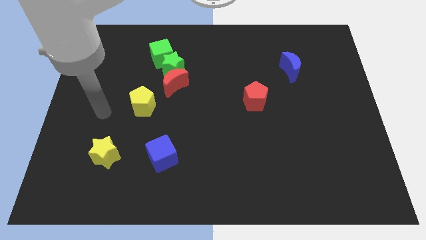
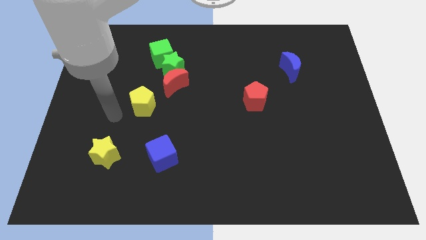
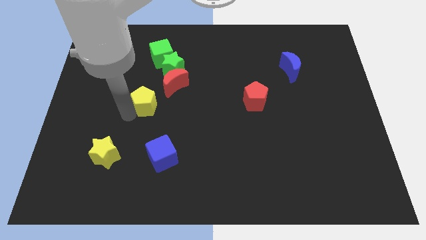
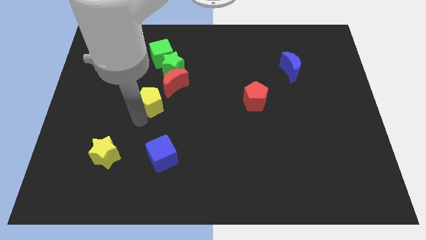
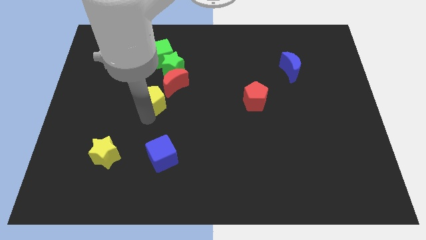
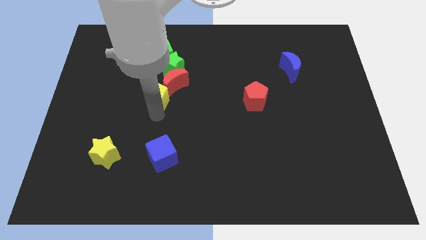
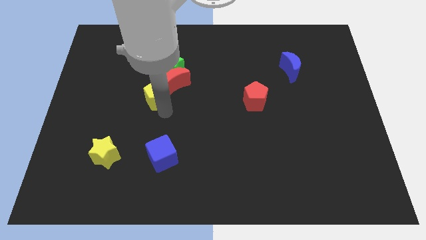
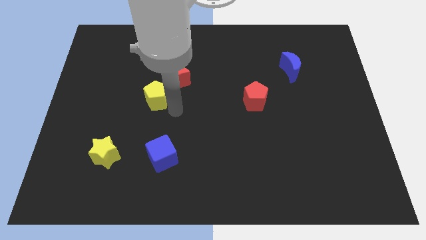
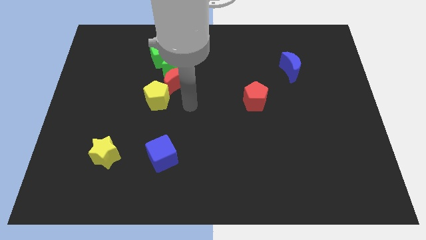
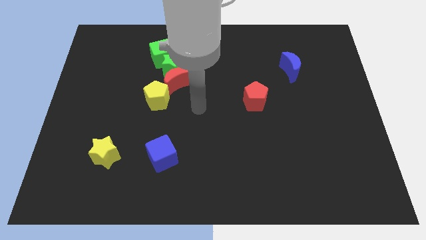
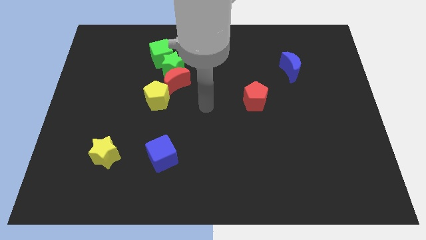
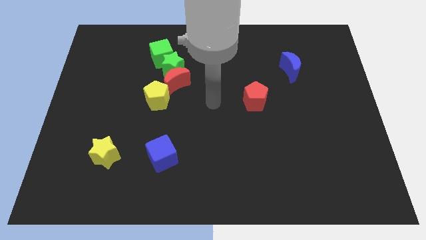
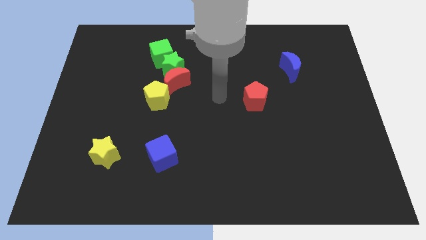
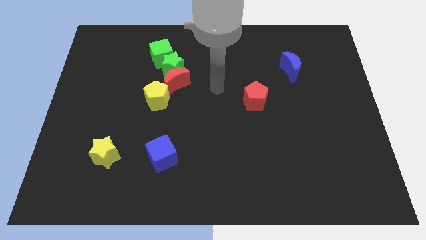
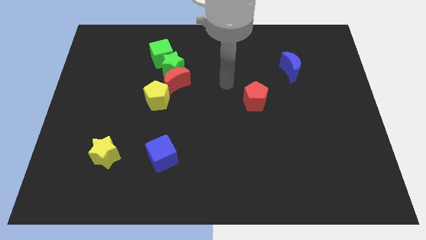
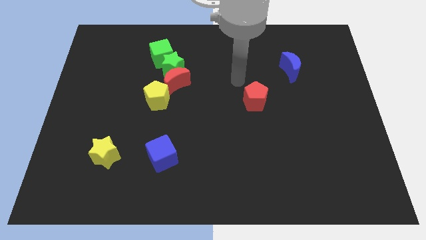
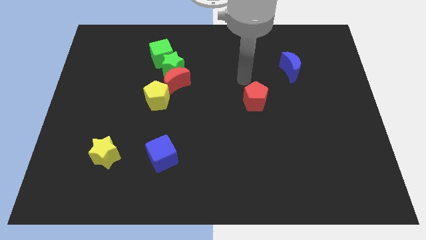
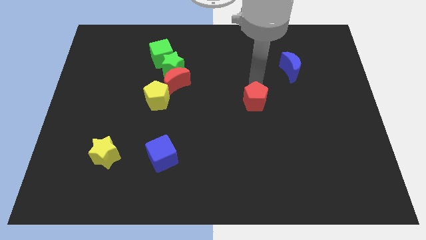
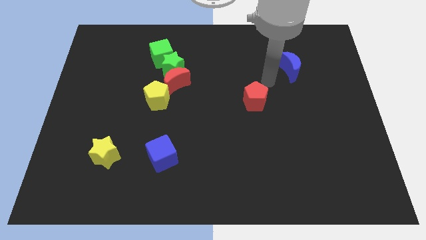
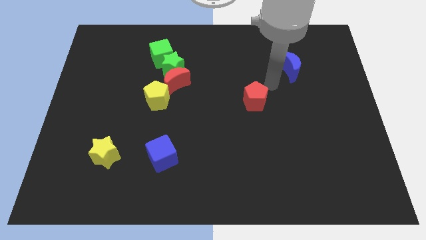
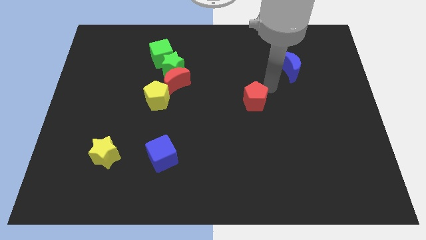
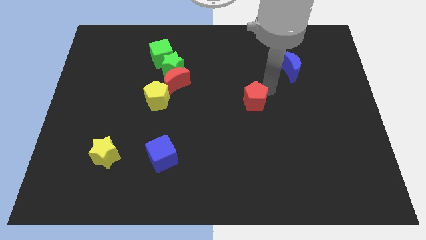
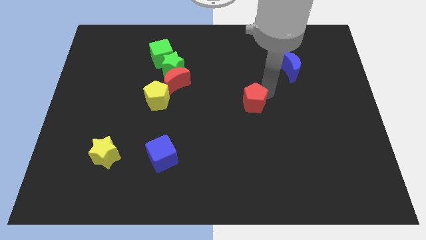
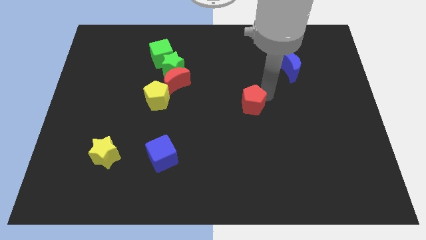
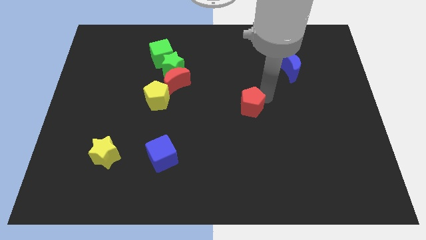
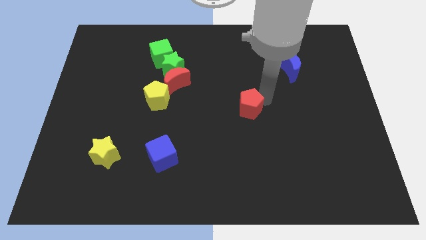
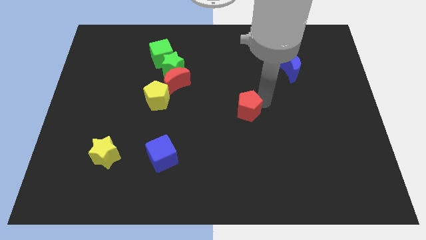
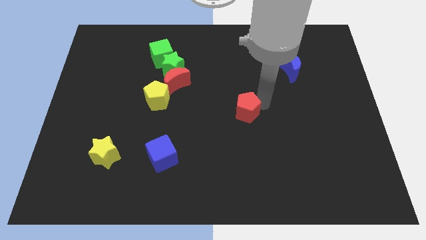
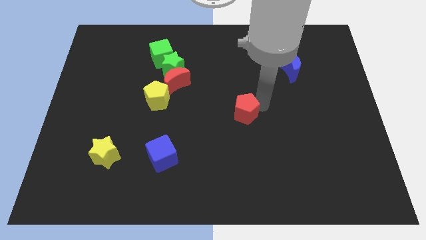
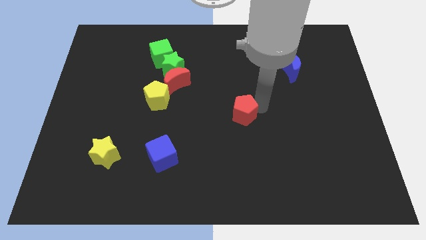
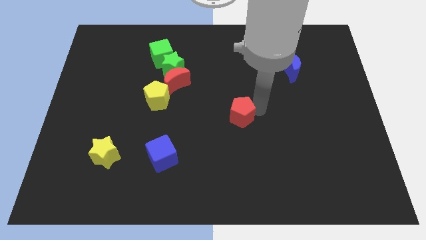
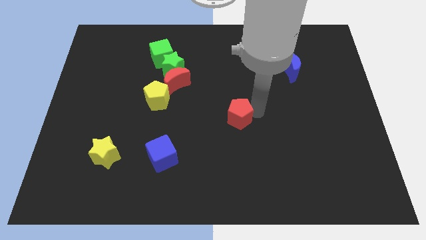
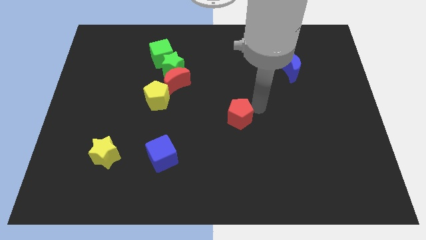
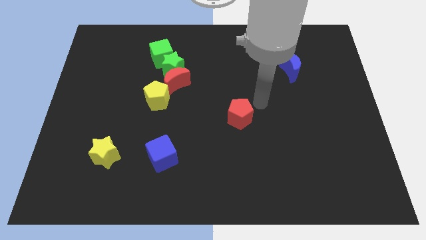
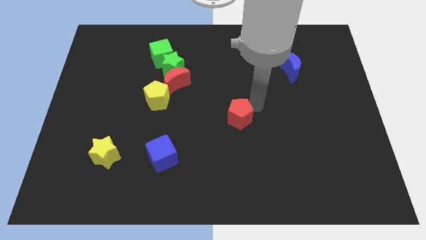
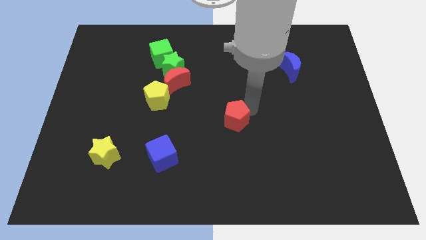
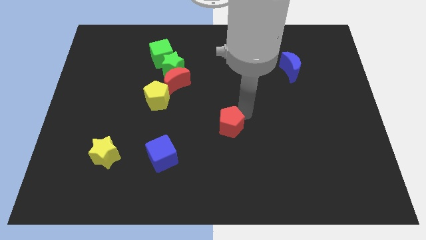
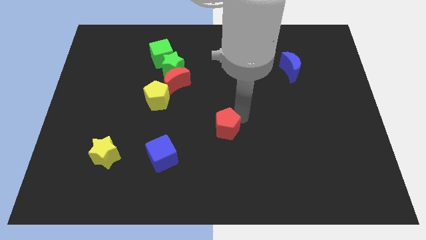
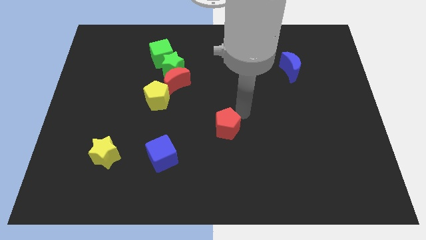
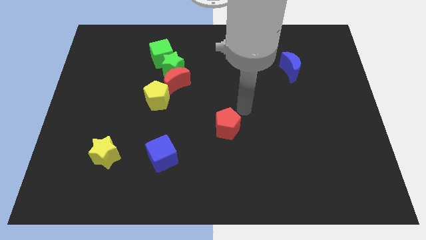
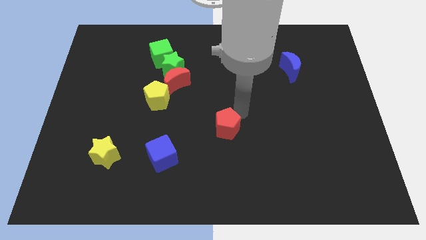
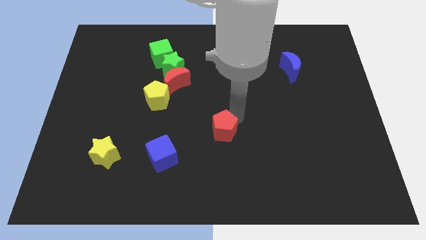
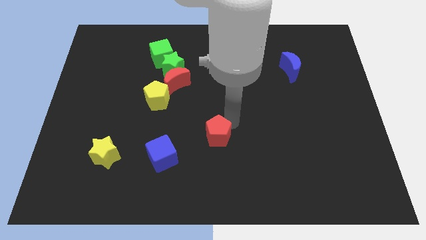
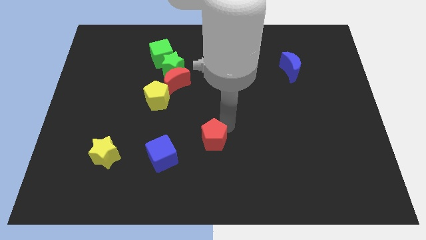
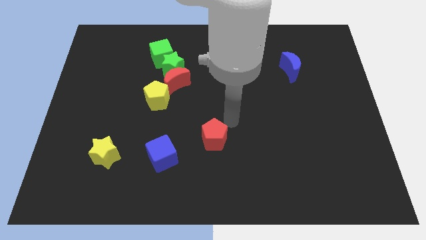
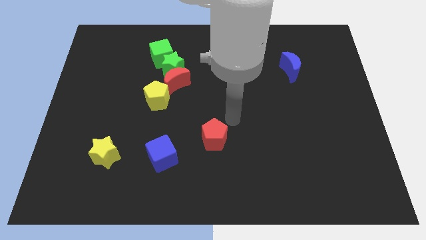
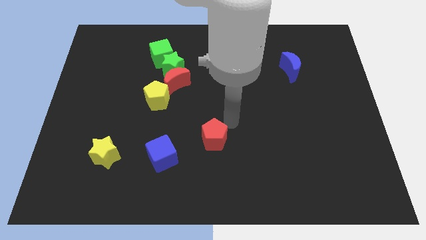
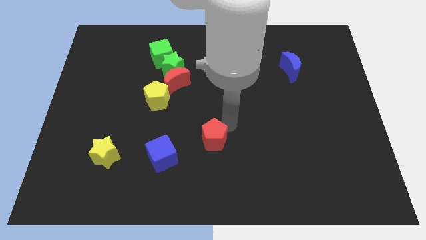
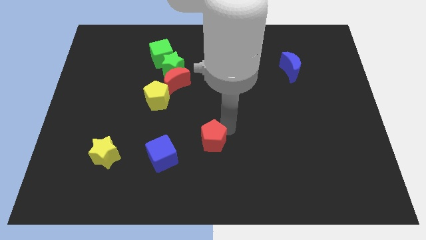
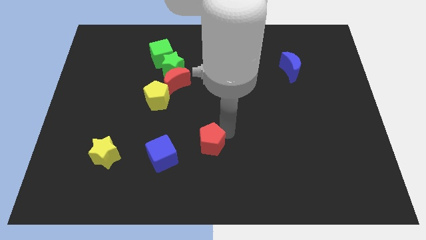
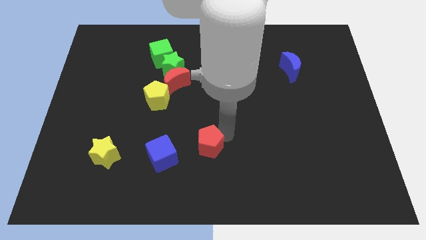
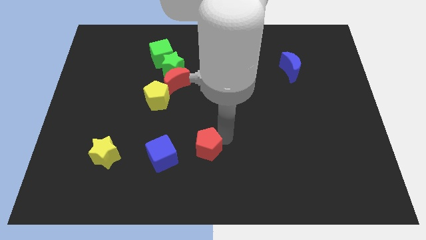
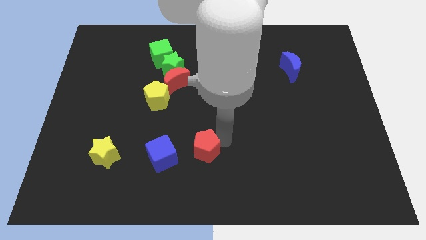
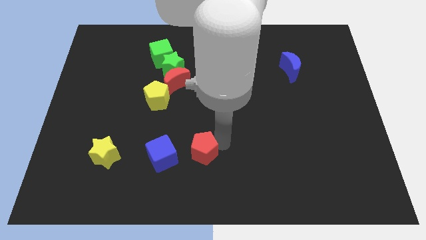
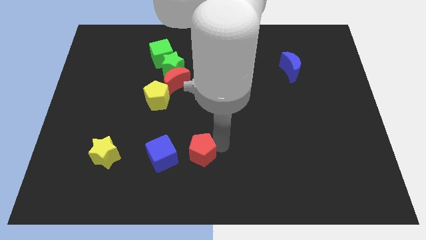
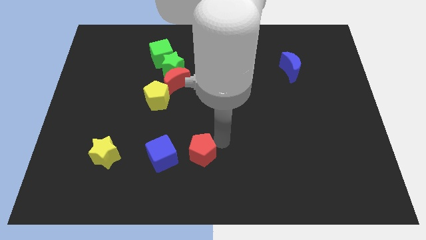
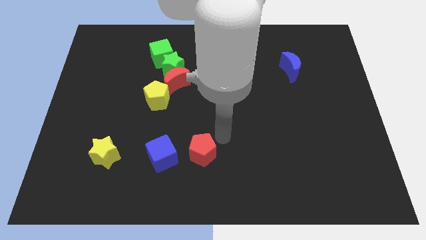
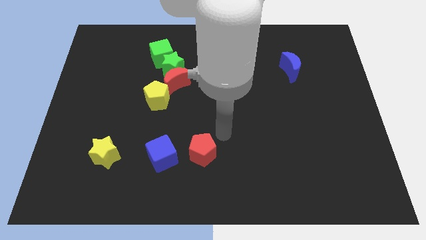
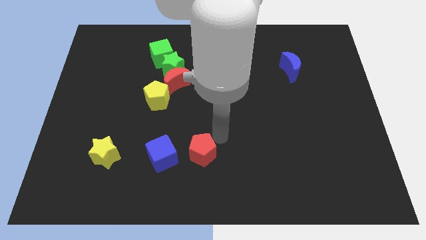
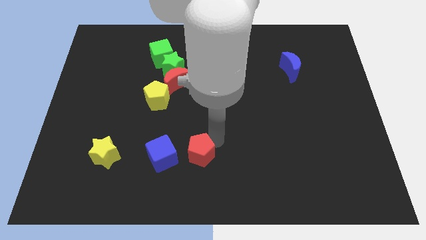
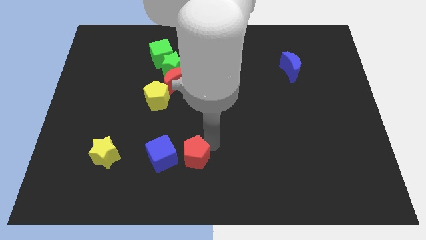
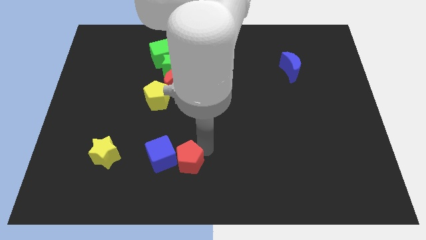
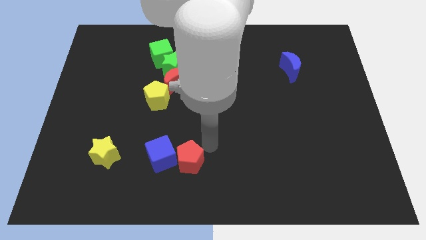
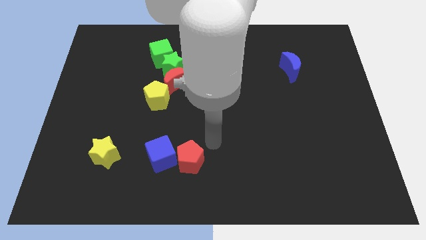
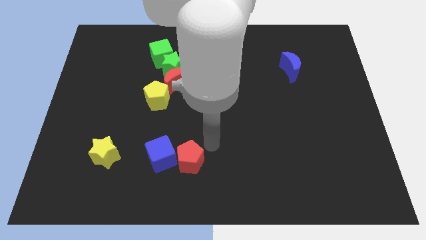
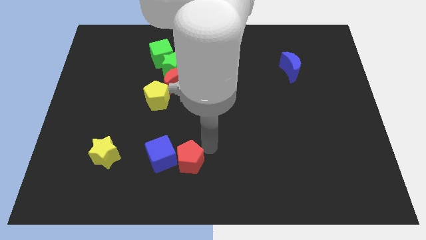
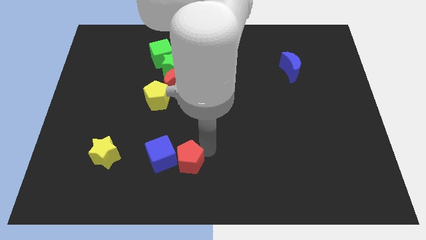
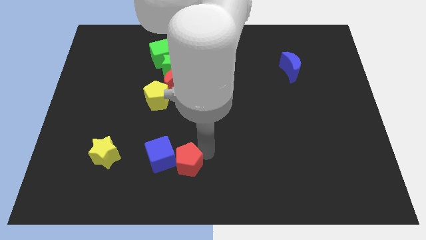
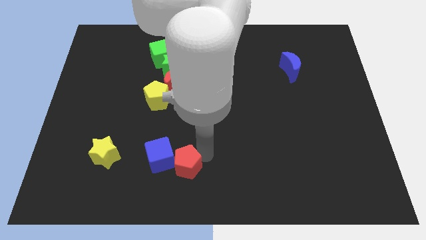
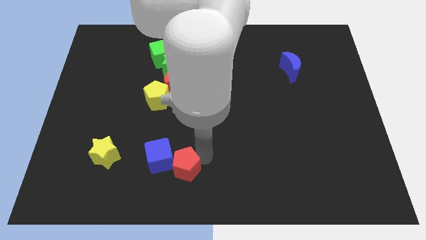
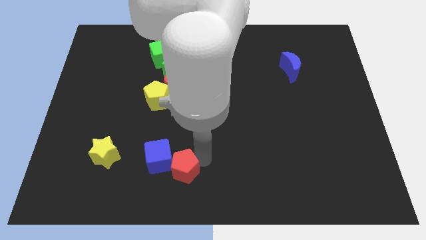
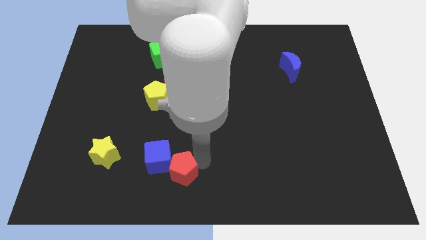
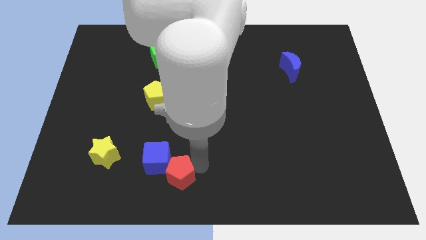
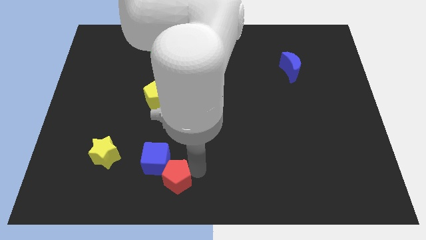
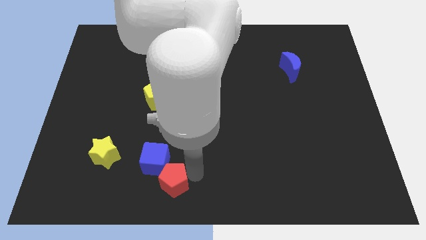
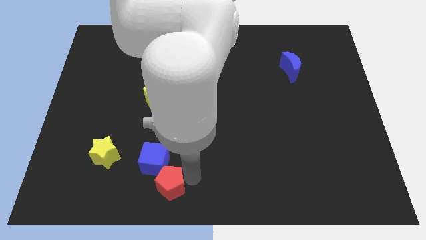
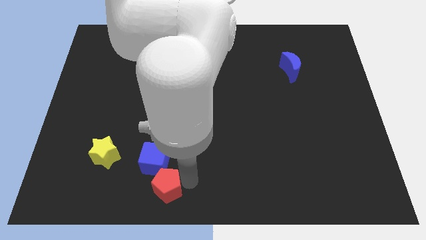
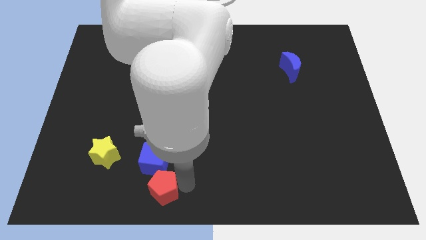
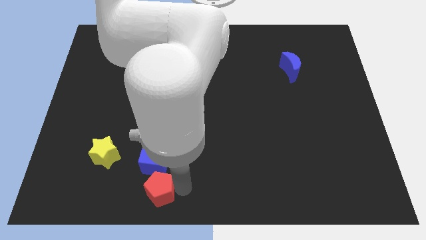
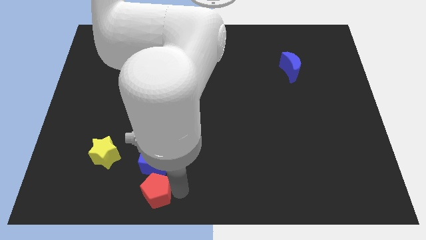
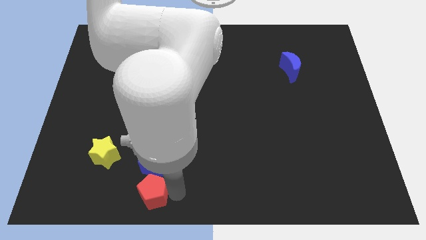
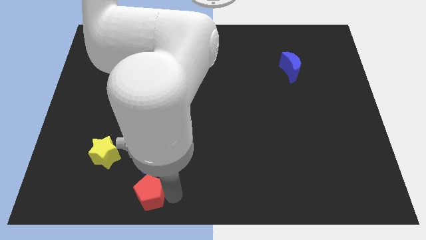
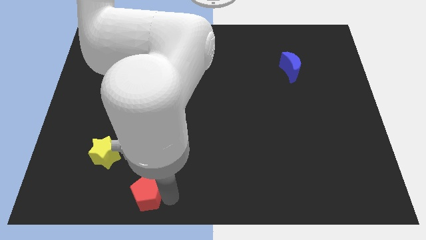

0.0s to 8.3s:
push the red pentagon to the bottom left of the blue cube
